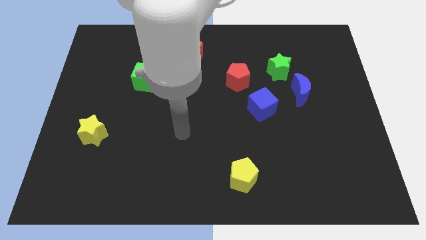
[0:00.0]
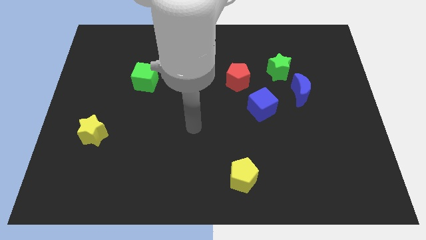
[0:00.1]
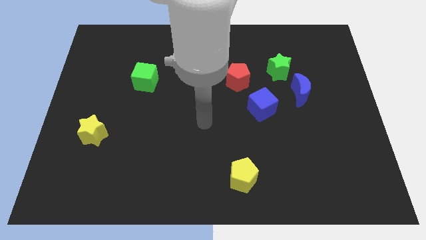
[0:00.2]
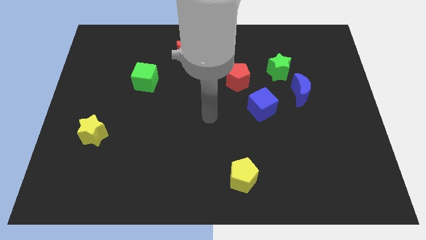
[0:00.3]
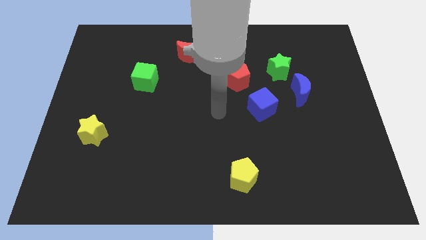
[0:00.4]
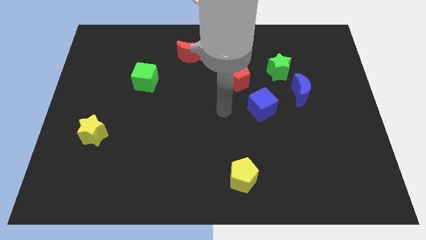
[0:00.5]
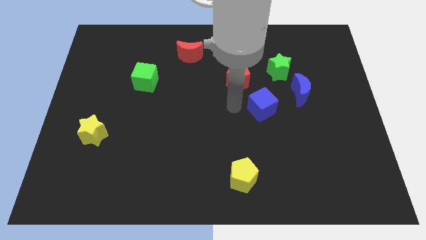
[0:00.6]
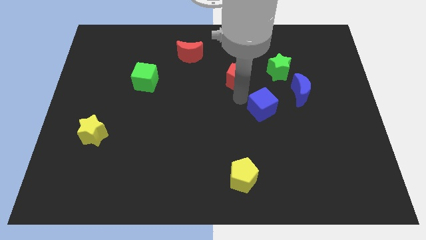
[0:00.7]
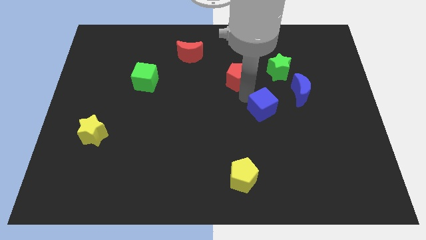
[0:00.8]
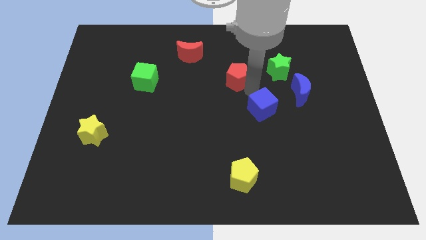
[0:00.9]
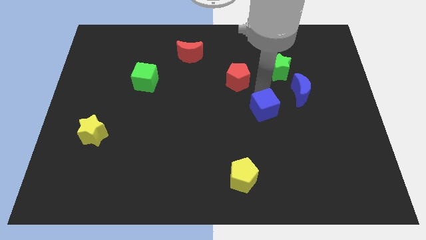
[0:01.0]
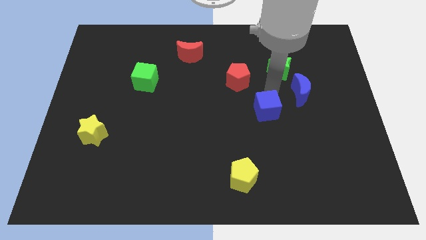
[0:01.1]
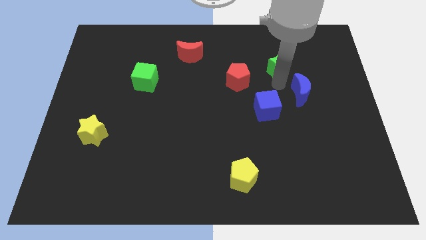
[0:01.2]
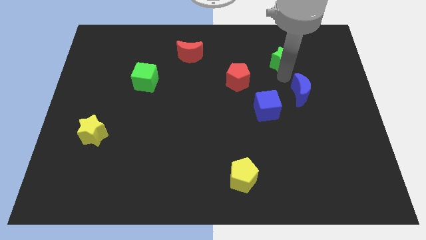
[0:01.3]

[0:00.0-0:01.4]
move the blue moon away from the green star

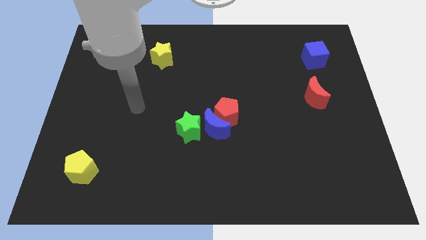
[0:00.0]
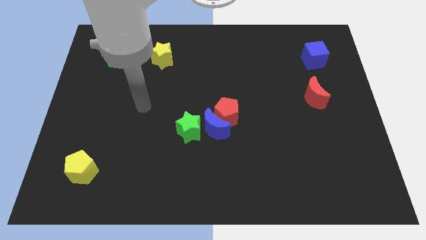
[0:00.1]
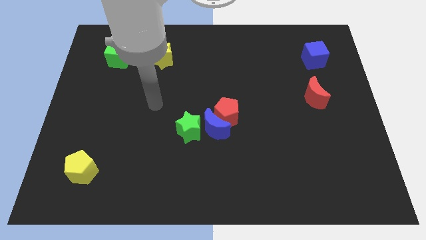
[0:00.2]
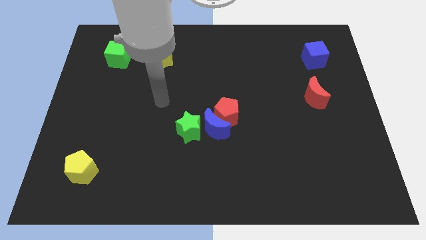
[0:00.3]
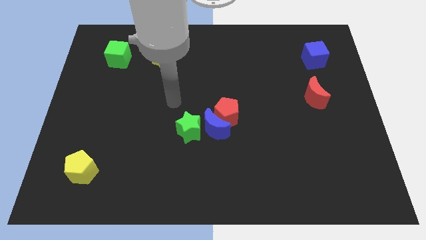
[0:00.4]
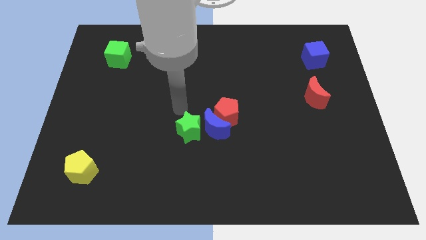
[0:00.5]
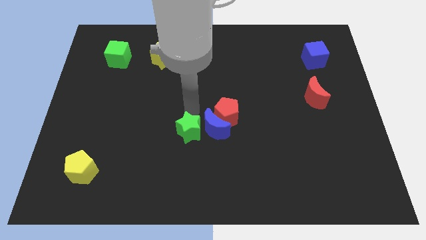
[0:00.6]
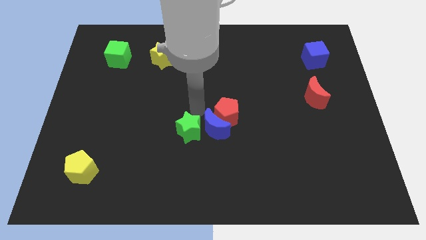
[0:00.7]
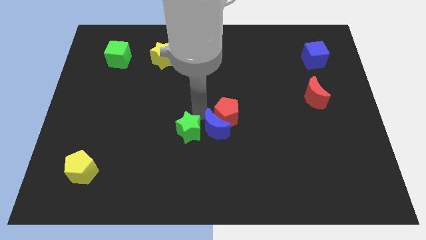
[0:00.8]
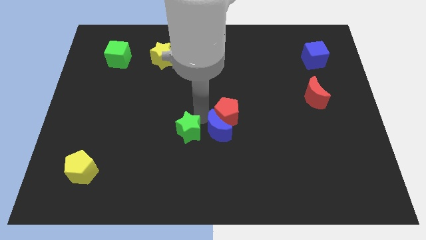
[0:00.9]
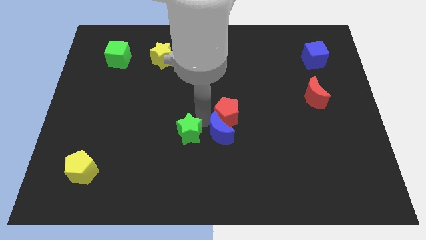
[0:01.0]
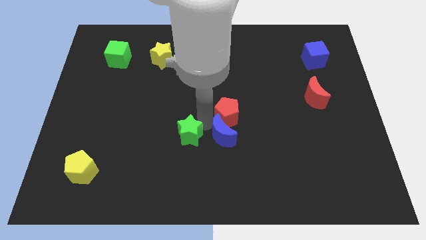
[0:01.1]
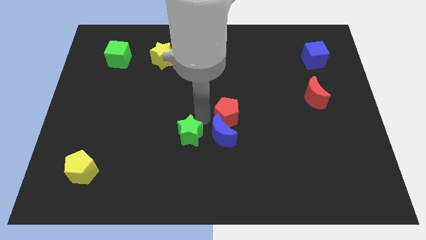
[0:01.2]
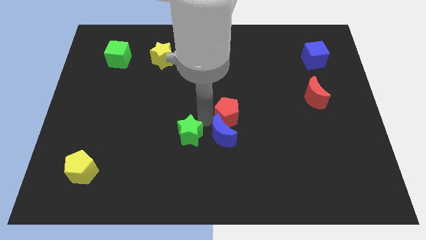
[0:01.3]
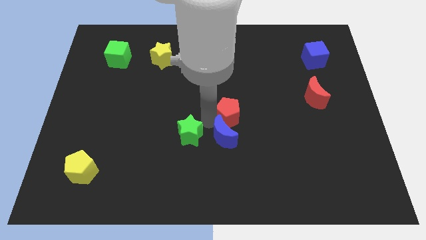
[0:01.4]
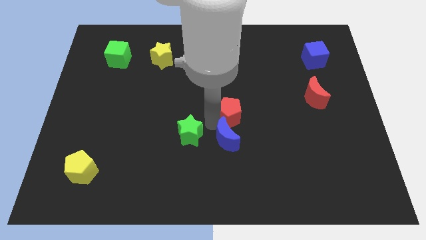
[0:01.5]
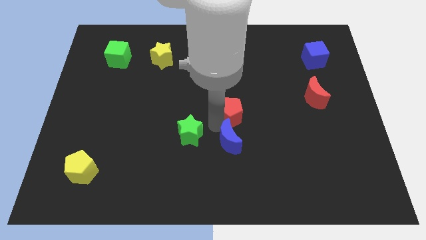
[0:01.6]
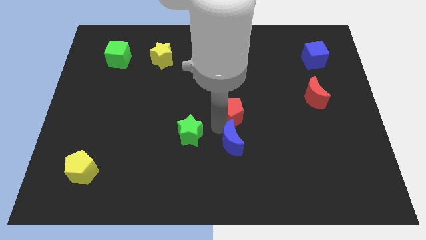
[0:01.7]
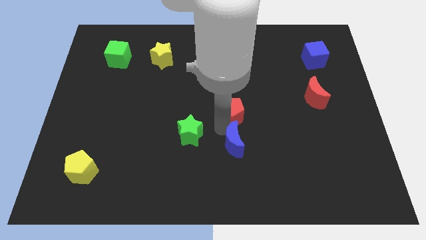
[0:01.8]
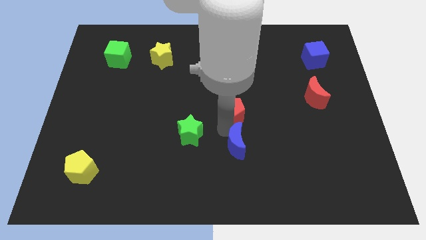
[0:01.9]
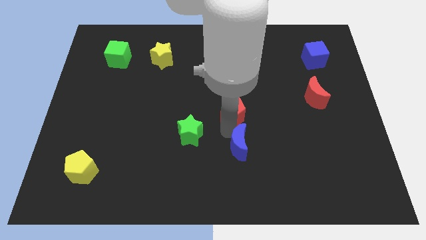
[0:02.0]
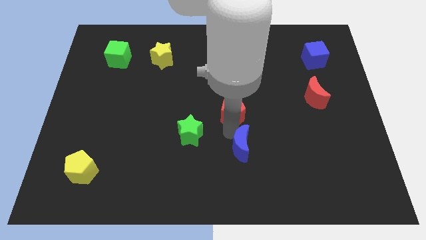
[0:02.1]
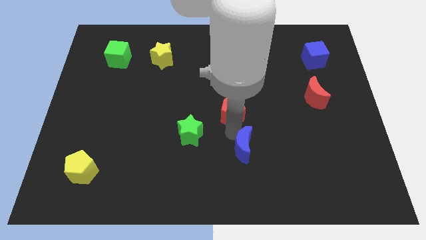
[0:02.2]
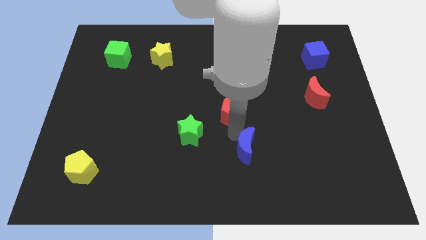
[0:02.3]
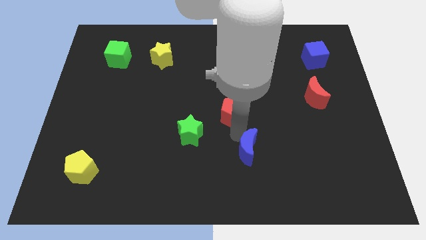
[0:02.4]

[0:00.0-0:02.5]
pull the blue moon apart from the red pentagon and green star

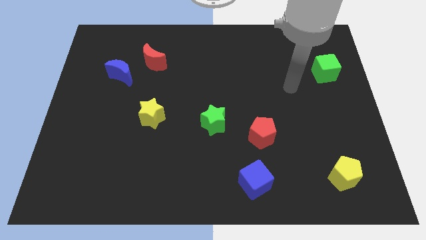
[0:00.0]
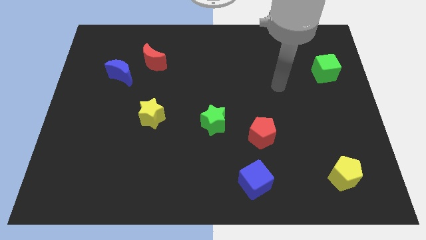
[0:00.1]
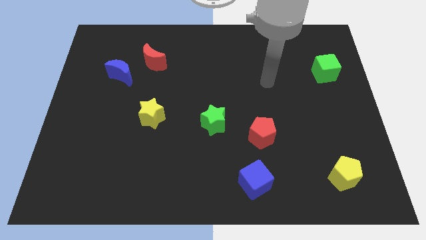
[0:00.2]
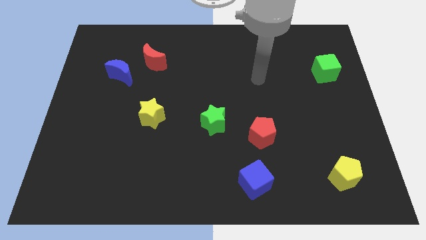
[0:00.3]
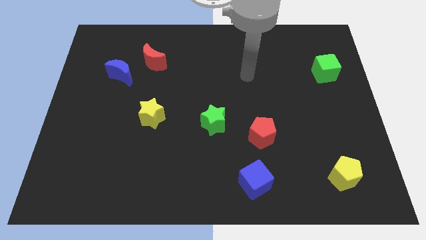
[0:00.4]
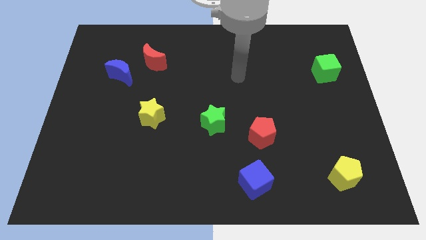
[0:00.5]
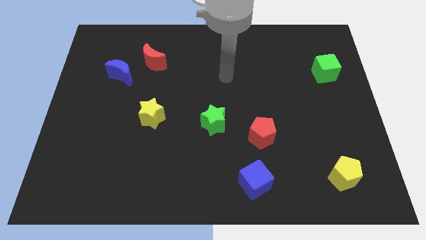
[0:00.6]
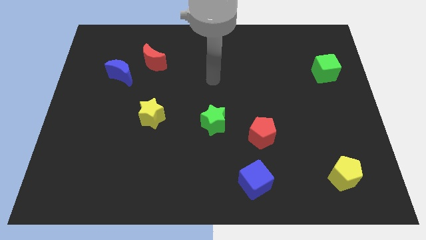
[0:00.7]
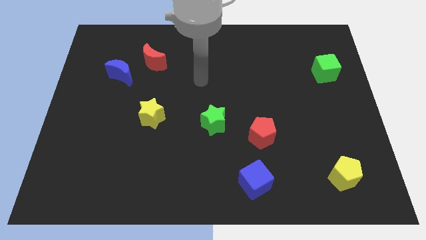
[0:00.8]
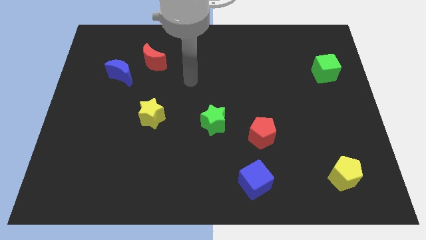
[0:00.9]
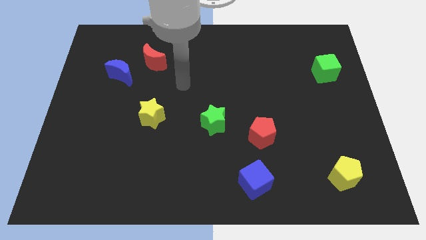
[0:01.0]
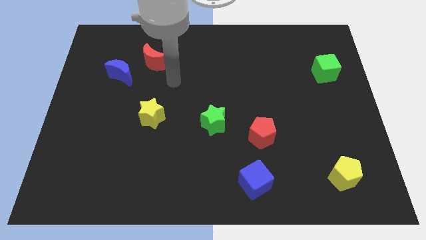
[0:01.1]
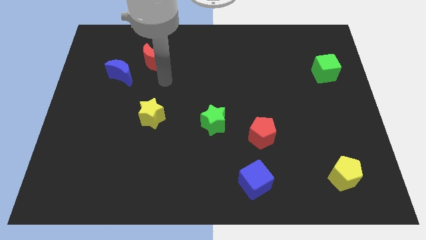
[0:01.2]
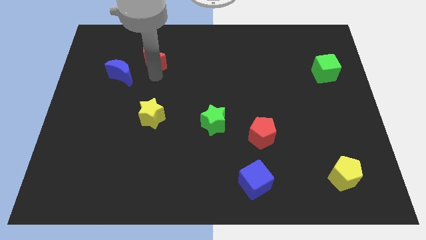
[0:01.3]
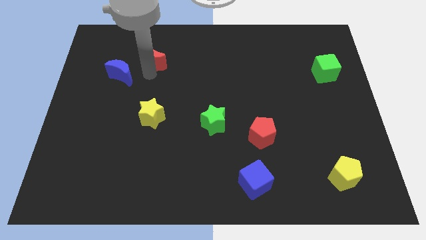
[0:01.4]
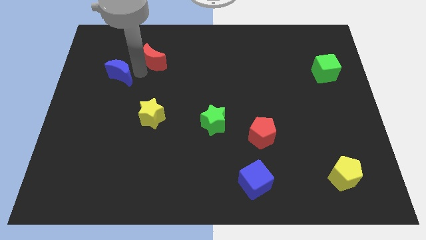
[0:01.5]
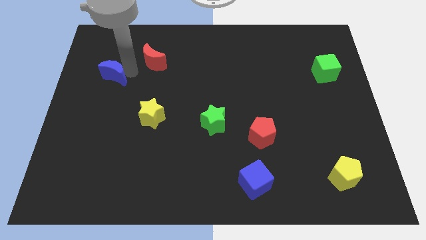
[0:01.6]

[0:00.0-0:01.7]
move the red moon away from the blue moon

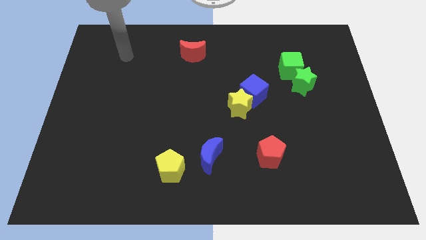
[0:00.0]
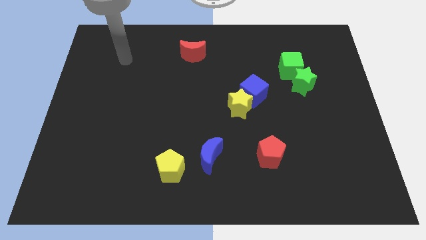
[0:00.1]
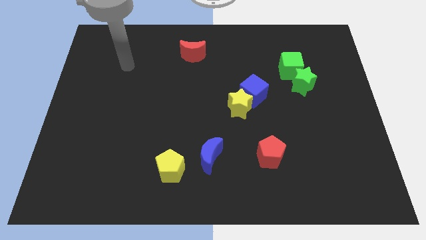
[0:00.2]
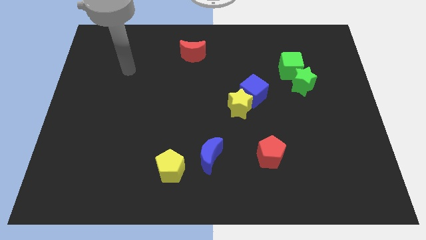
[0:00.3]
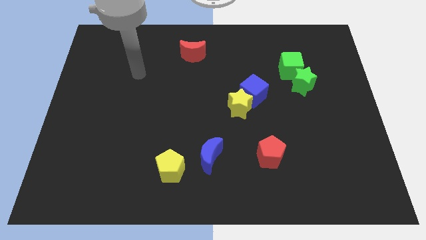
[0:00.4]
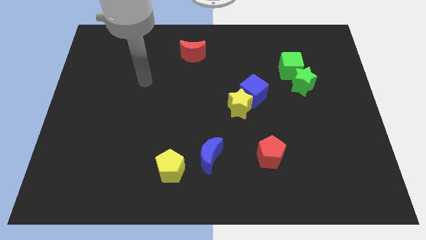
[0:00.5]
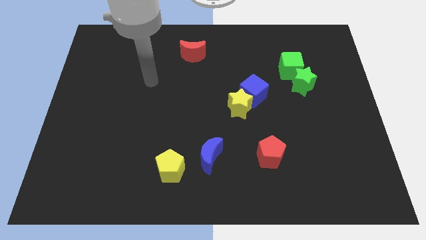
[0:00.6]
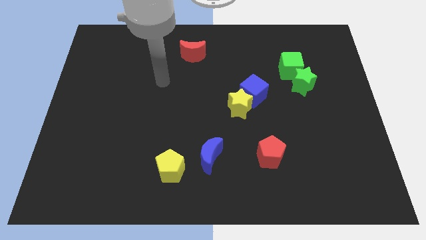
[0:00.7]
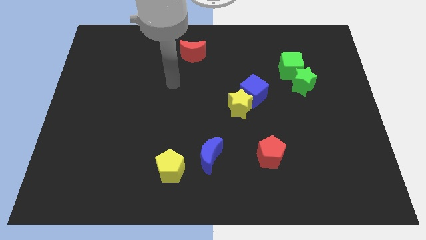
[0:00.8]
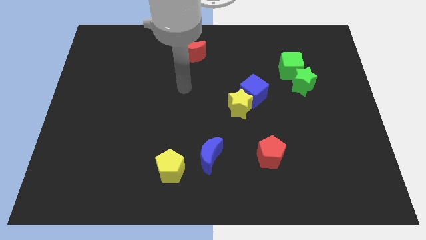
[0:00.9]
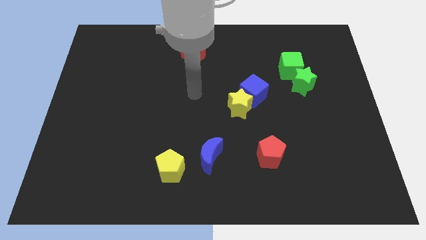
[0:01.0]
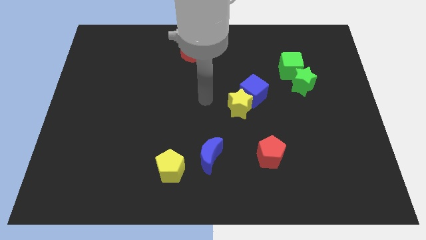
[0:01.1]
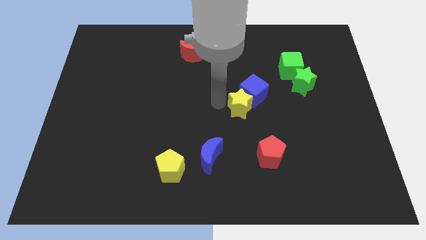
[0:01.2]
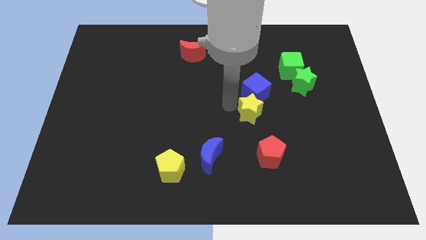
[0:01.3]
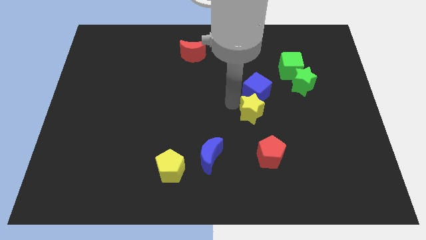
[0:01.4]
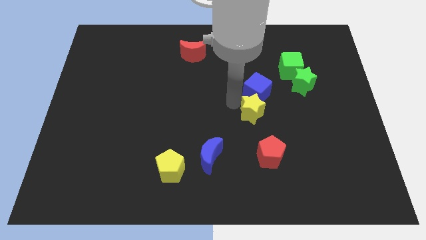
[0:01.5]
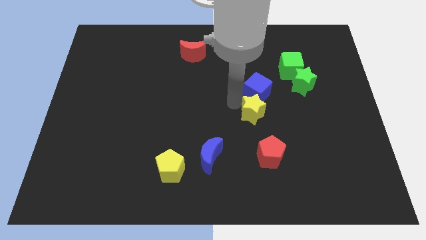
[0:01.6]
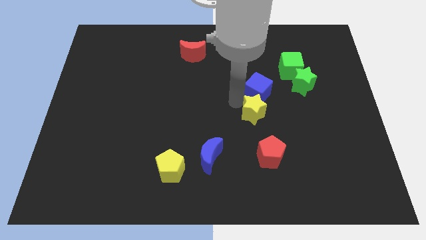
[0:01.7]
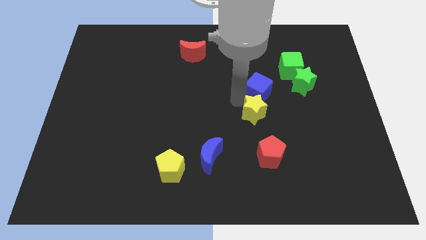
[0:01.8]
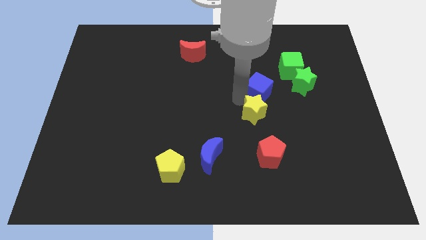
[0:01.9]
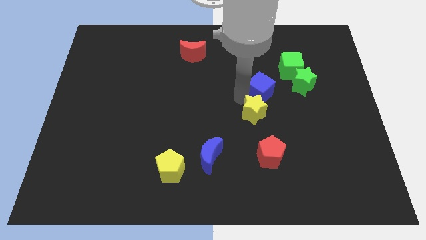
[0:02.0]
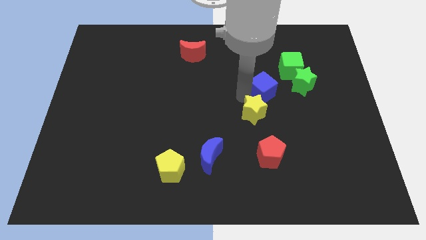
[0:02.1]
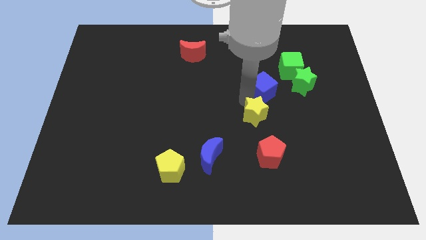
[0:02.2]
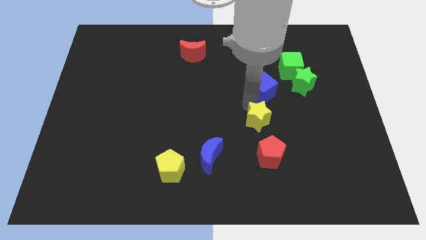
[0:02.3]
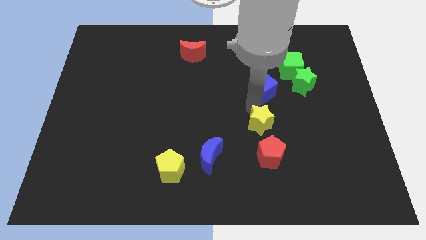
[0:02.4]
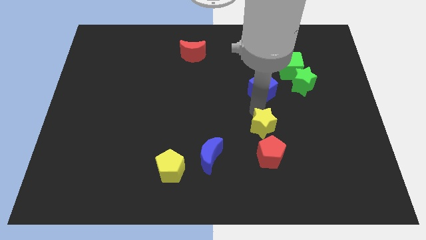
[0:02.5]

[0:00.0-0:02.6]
move the blue cube away from the yellow star

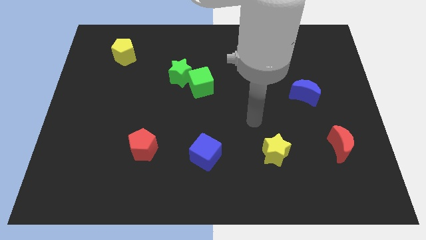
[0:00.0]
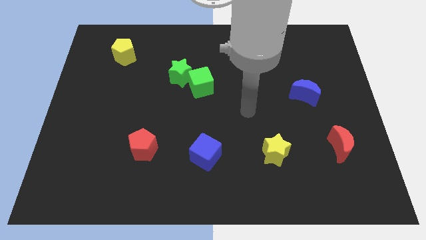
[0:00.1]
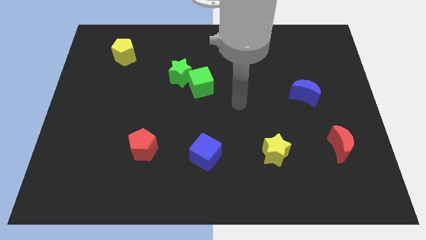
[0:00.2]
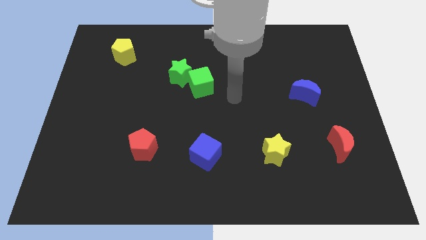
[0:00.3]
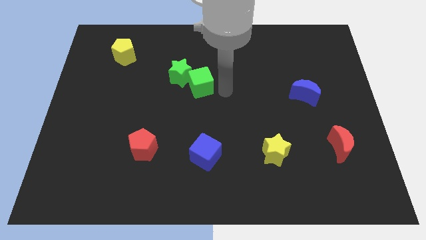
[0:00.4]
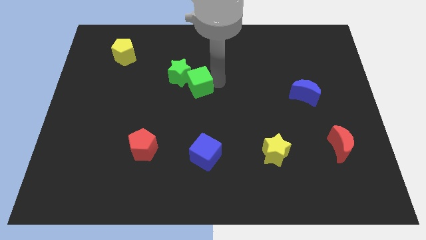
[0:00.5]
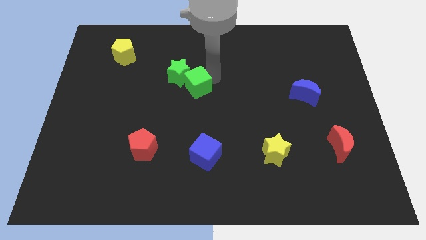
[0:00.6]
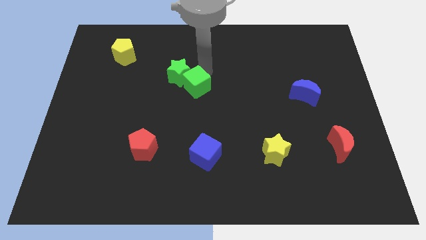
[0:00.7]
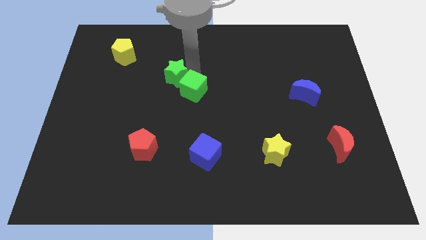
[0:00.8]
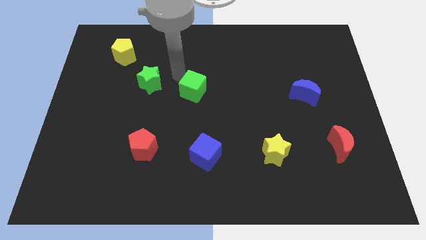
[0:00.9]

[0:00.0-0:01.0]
move the green cube away from the green star
